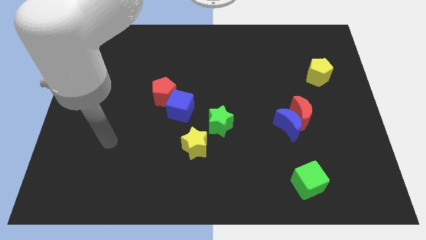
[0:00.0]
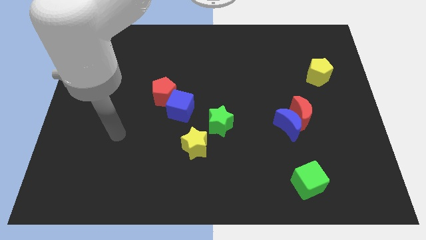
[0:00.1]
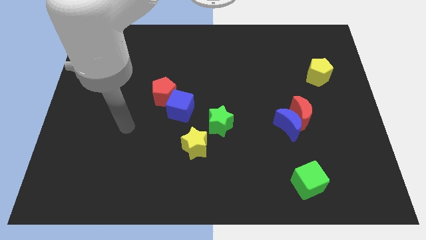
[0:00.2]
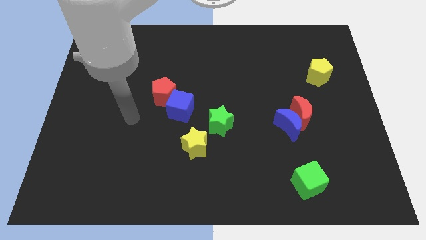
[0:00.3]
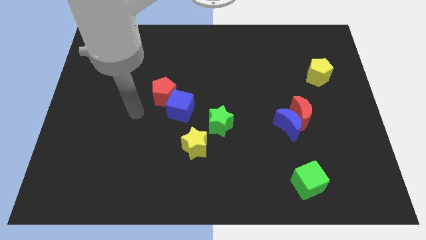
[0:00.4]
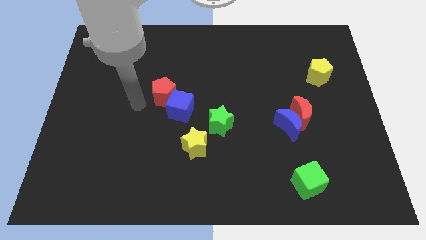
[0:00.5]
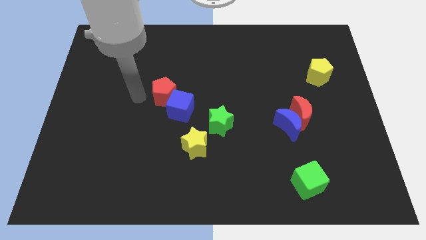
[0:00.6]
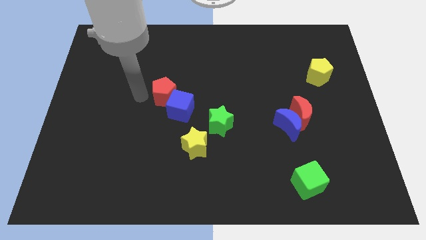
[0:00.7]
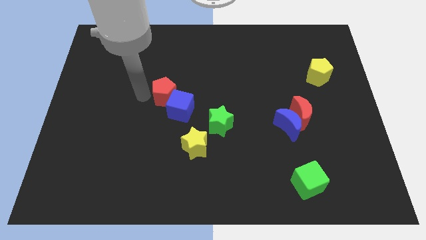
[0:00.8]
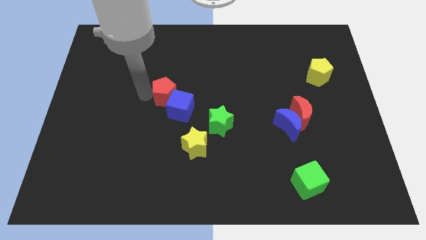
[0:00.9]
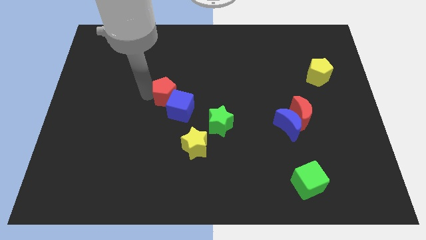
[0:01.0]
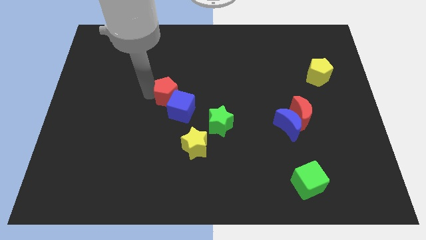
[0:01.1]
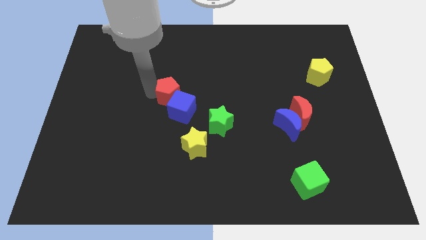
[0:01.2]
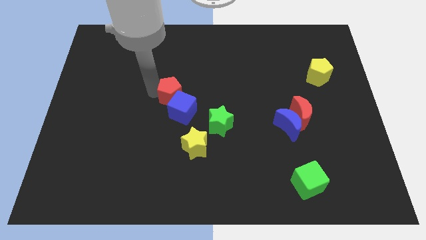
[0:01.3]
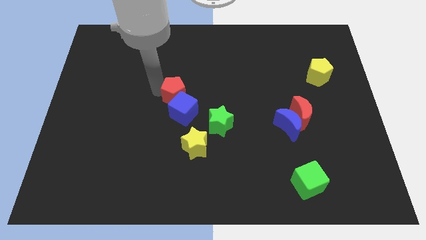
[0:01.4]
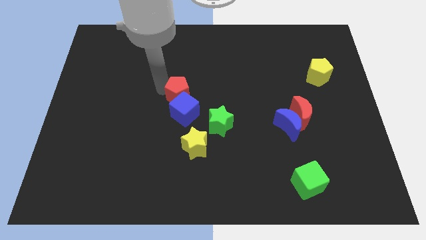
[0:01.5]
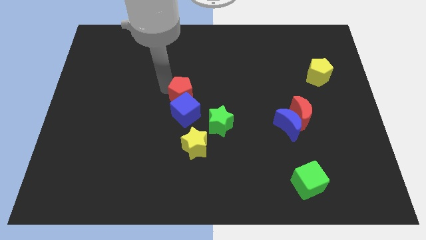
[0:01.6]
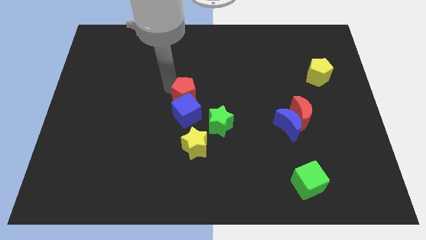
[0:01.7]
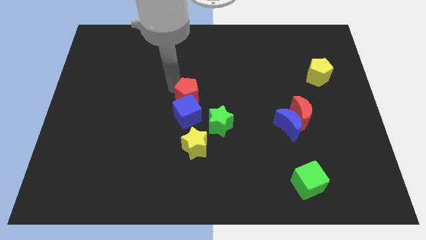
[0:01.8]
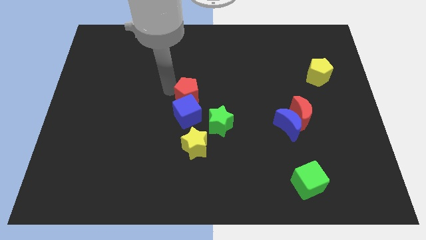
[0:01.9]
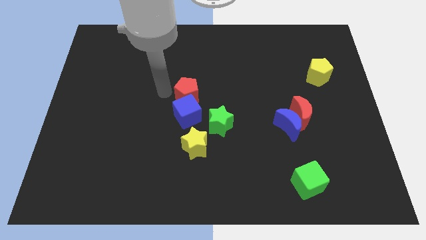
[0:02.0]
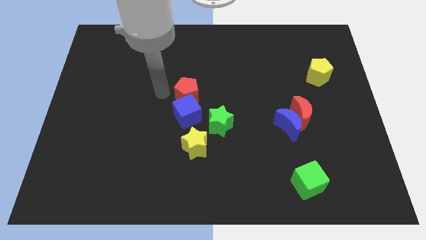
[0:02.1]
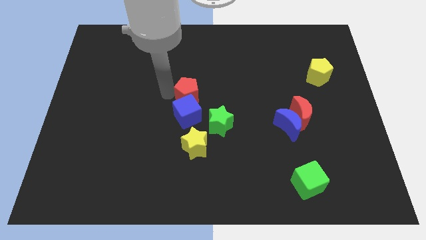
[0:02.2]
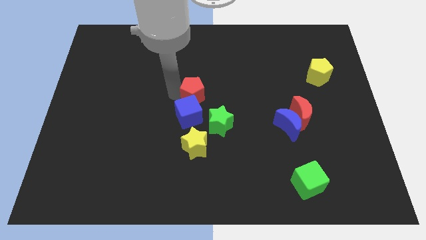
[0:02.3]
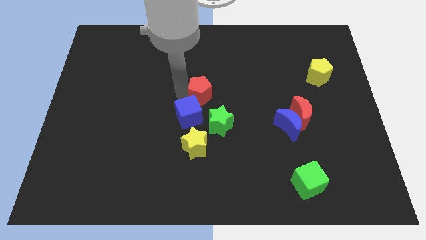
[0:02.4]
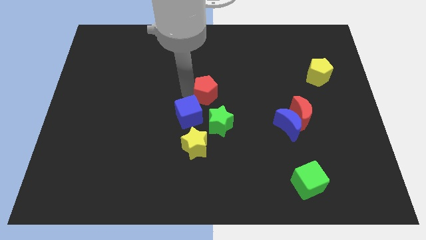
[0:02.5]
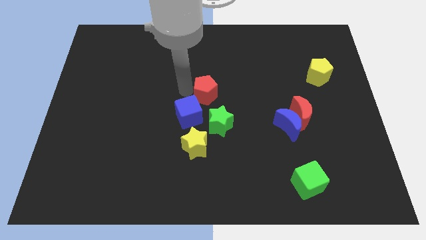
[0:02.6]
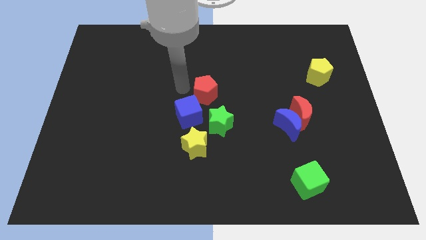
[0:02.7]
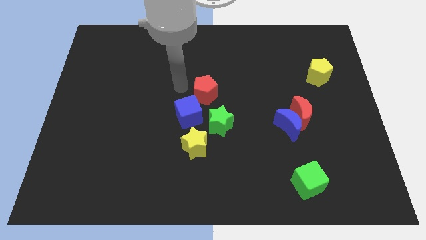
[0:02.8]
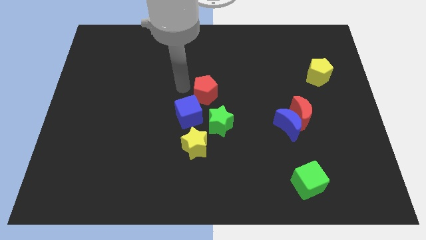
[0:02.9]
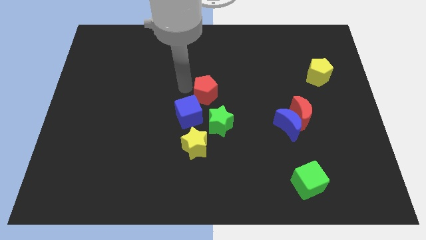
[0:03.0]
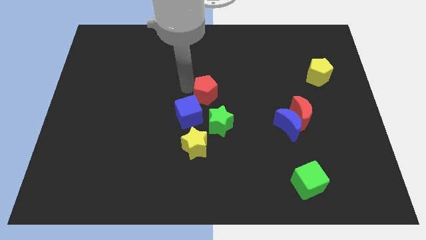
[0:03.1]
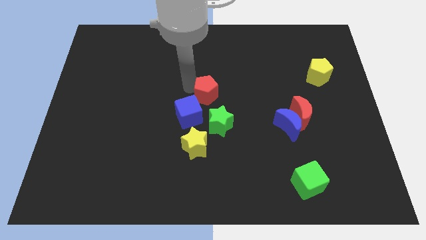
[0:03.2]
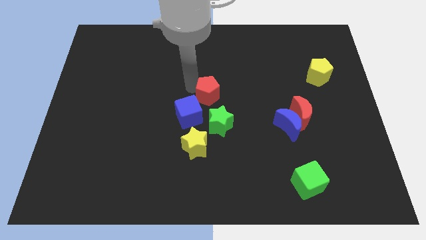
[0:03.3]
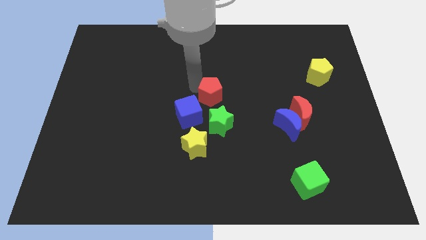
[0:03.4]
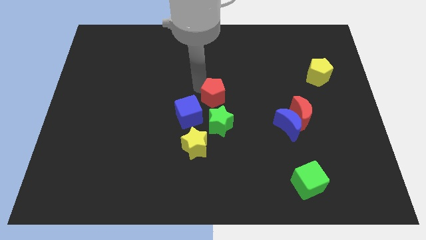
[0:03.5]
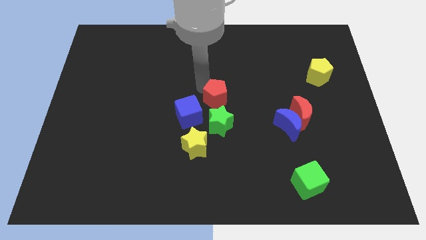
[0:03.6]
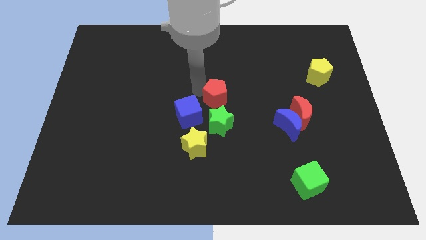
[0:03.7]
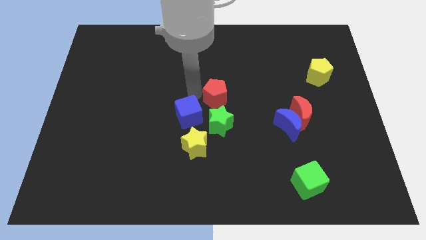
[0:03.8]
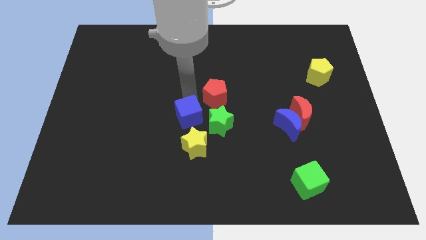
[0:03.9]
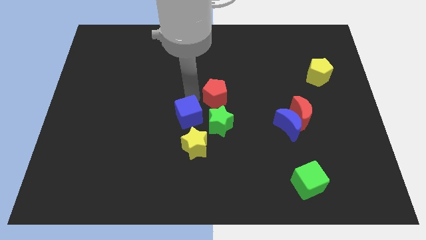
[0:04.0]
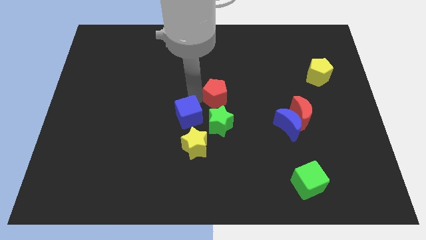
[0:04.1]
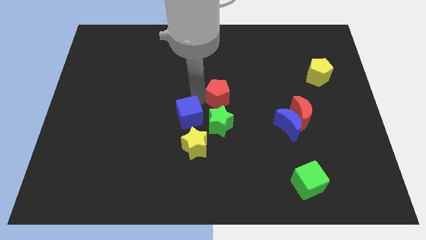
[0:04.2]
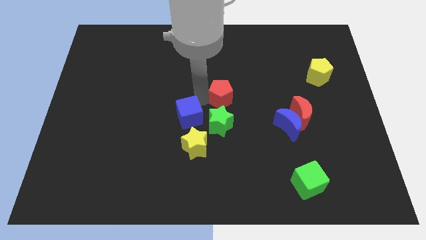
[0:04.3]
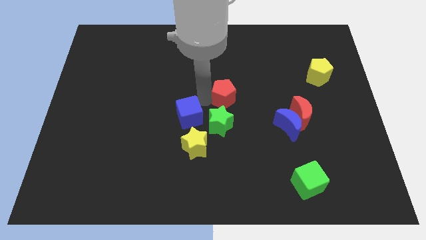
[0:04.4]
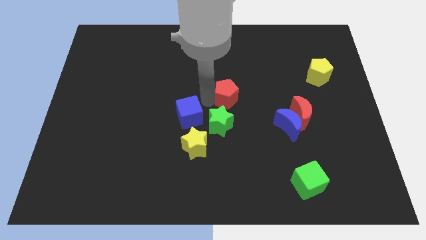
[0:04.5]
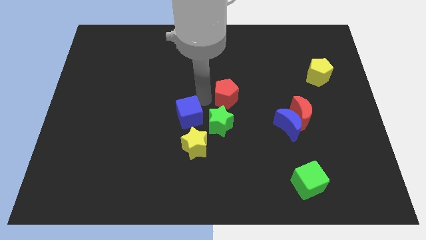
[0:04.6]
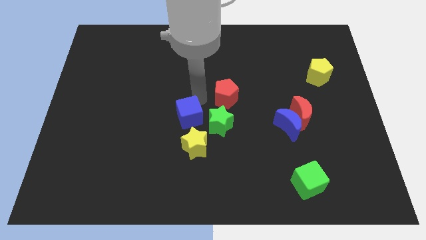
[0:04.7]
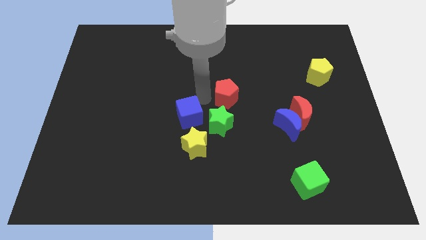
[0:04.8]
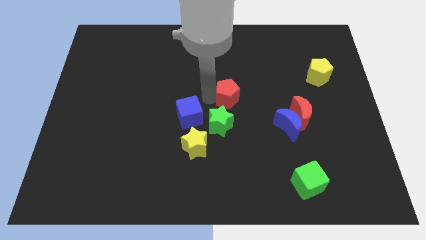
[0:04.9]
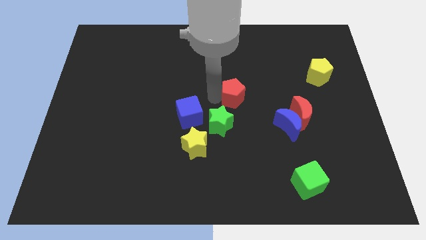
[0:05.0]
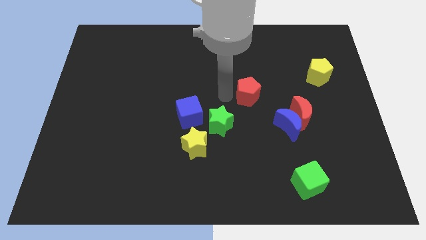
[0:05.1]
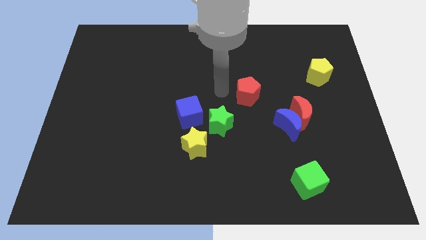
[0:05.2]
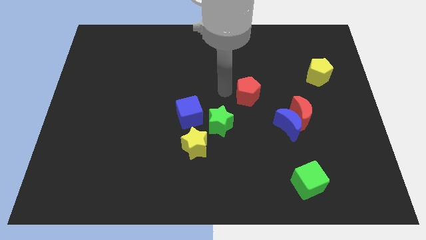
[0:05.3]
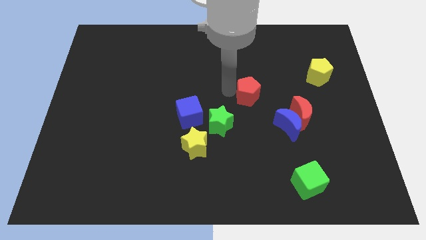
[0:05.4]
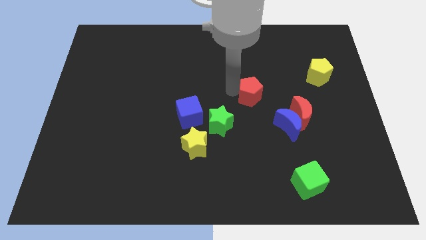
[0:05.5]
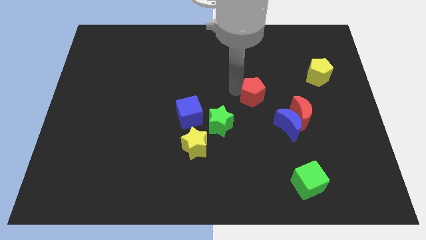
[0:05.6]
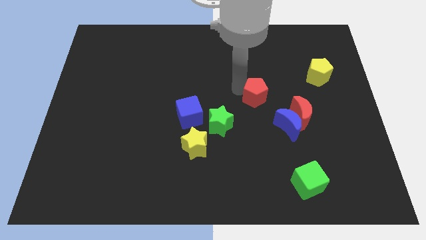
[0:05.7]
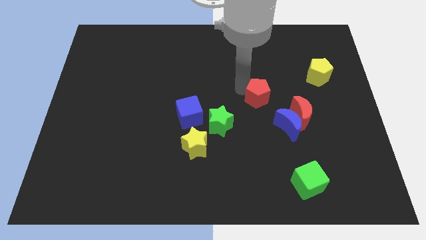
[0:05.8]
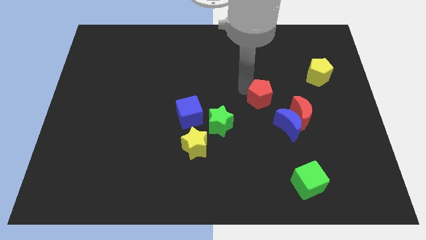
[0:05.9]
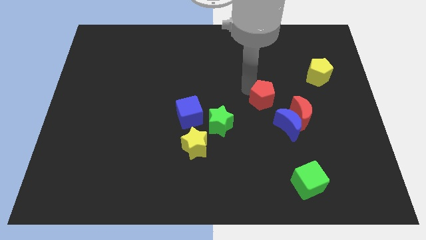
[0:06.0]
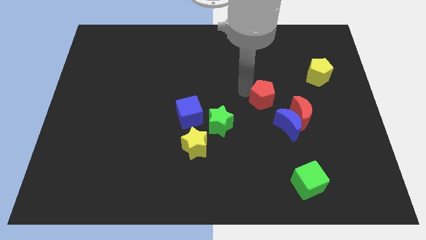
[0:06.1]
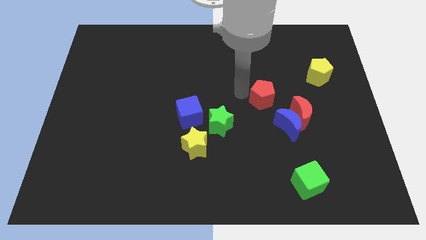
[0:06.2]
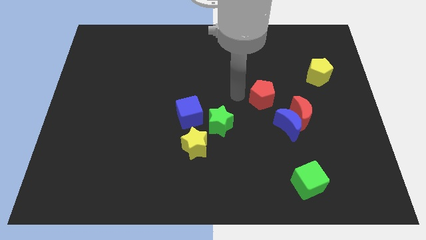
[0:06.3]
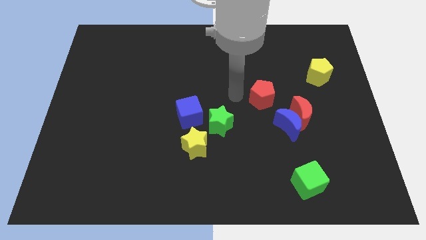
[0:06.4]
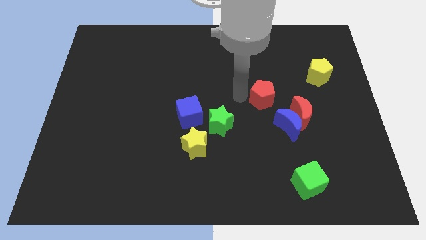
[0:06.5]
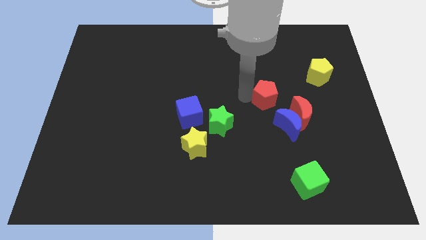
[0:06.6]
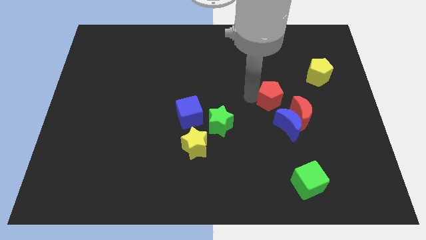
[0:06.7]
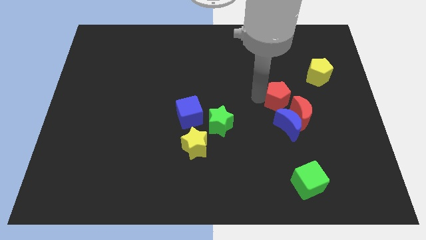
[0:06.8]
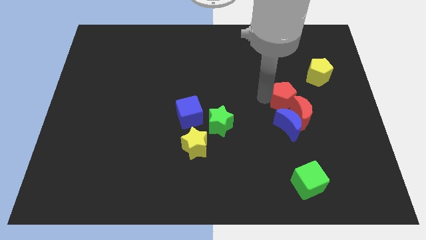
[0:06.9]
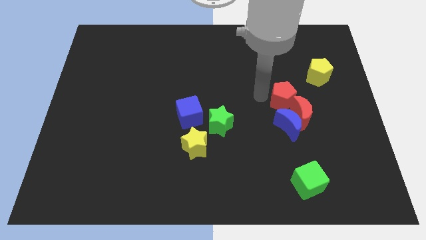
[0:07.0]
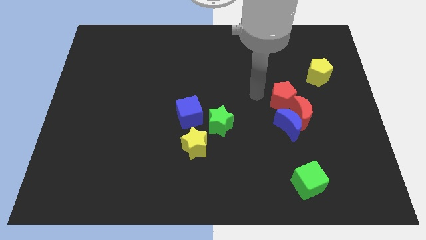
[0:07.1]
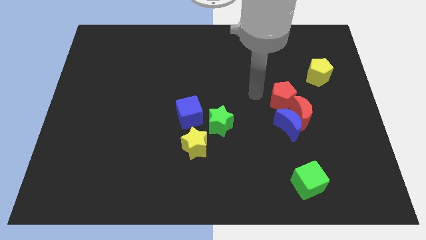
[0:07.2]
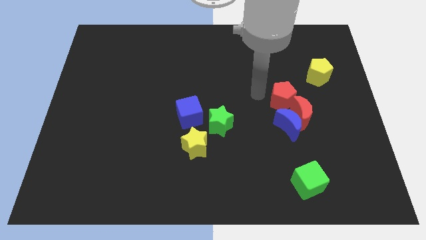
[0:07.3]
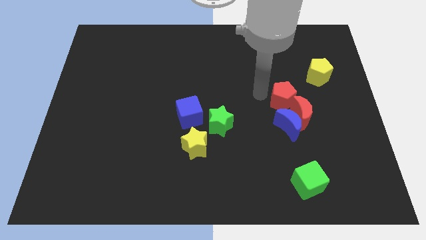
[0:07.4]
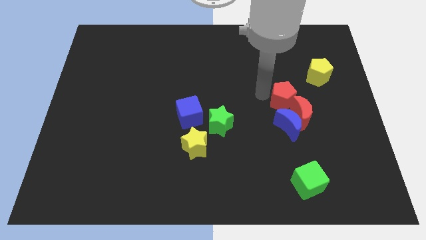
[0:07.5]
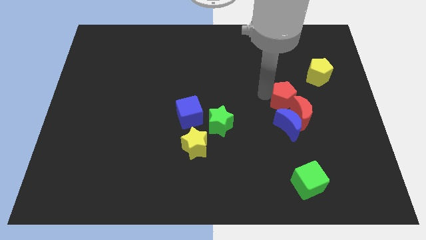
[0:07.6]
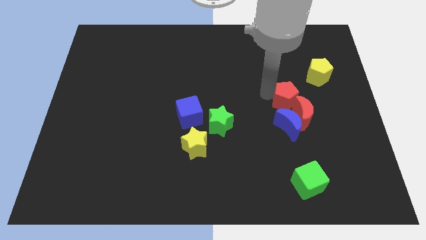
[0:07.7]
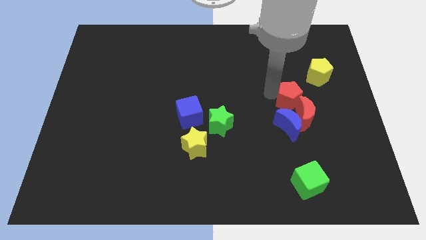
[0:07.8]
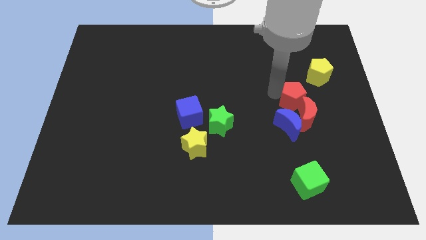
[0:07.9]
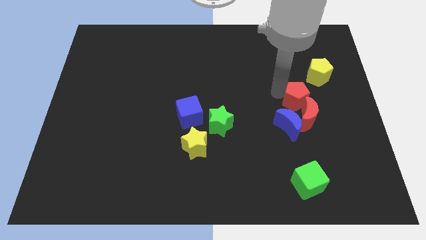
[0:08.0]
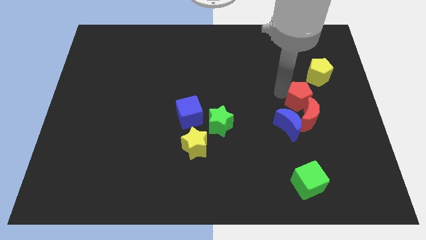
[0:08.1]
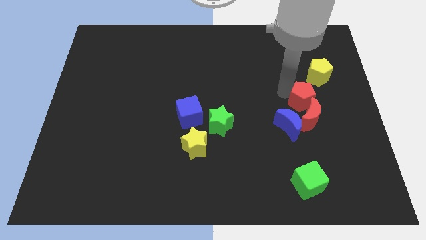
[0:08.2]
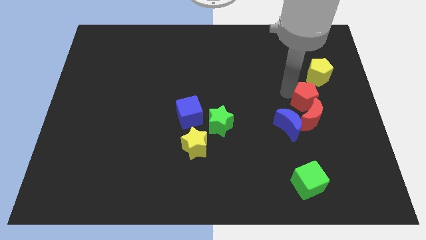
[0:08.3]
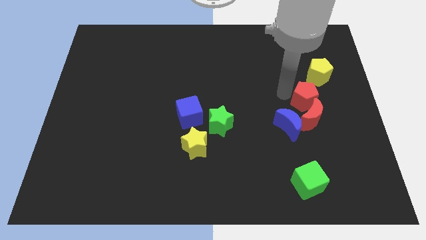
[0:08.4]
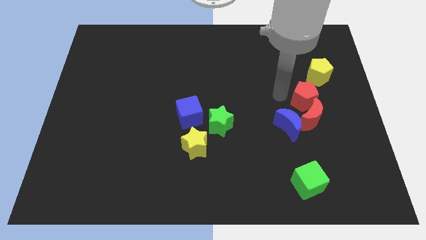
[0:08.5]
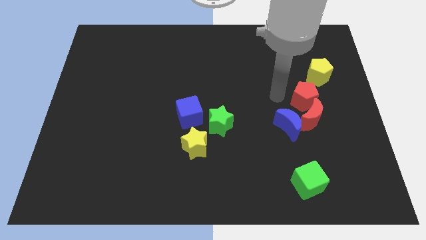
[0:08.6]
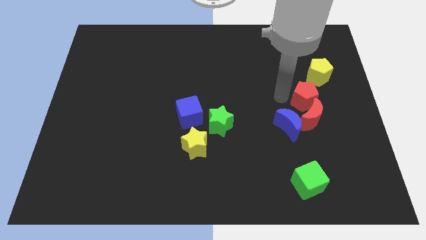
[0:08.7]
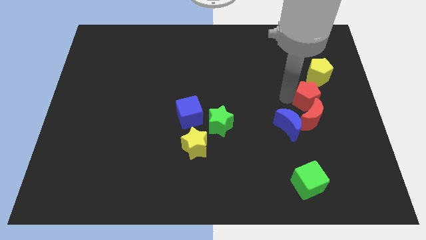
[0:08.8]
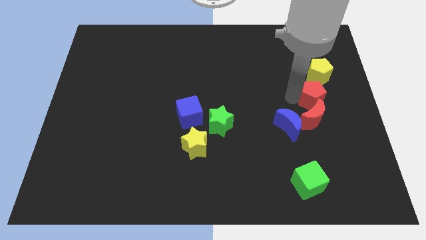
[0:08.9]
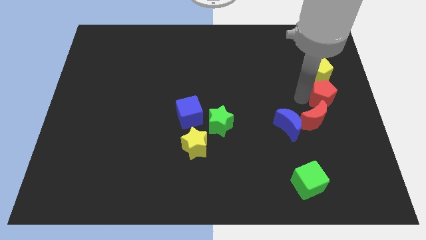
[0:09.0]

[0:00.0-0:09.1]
slide the red pentagon to the right side
